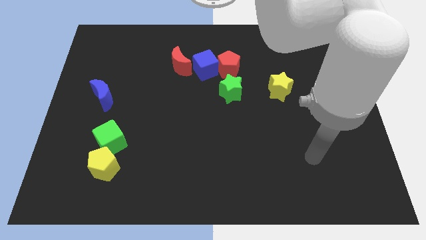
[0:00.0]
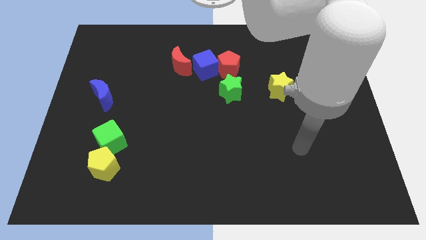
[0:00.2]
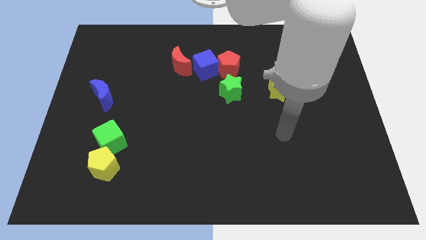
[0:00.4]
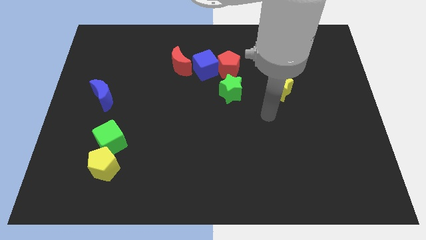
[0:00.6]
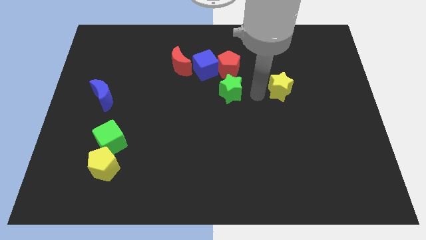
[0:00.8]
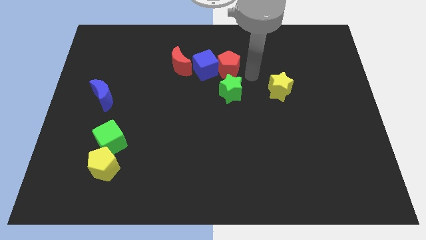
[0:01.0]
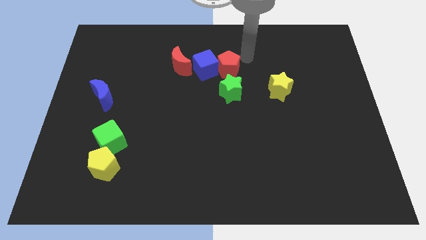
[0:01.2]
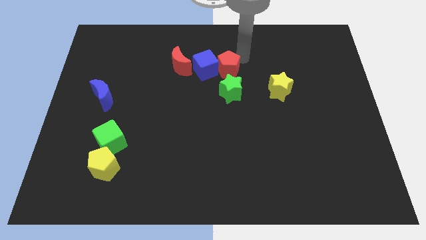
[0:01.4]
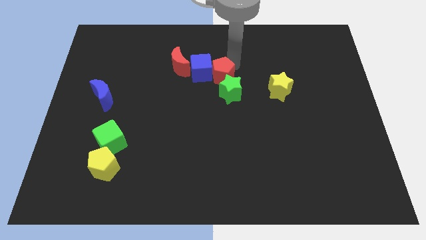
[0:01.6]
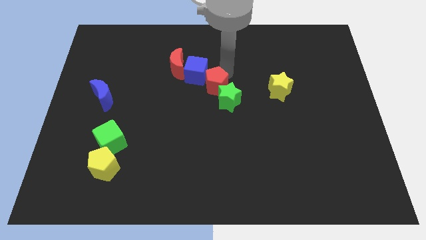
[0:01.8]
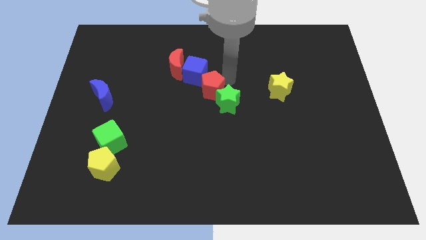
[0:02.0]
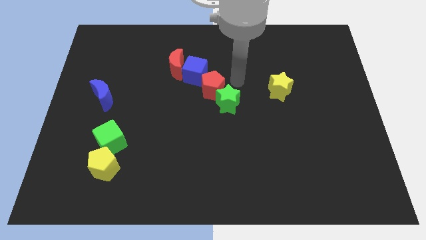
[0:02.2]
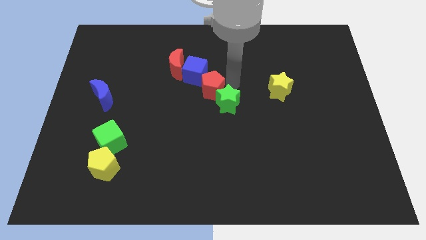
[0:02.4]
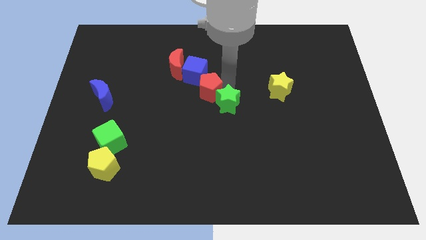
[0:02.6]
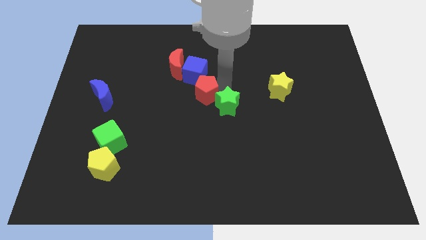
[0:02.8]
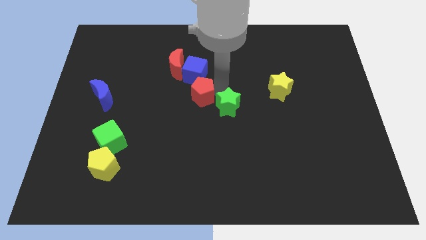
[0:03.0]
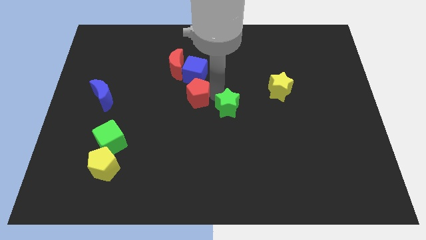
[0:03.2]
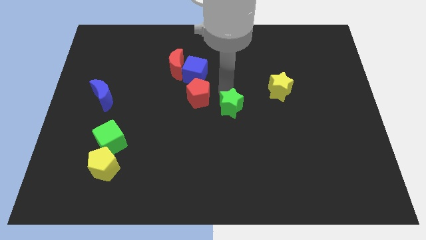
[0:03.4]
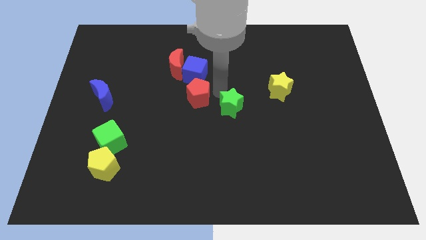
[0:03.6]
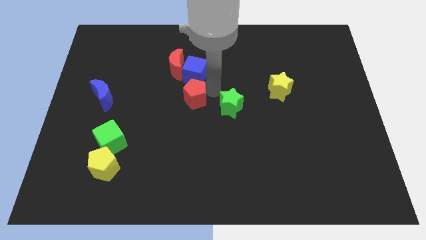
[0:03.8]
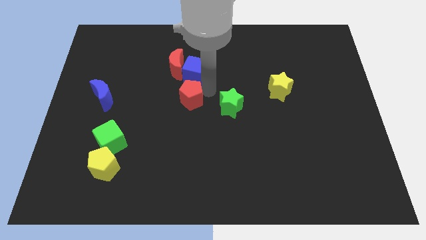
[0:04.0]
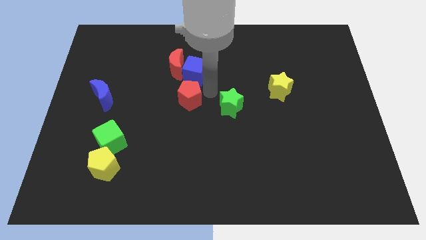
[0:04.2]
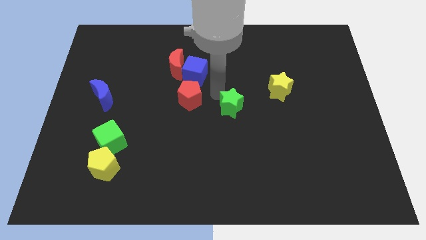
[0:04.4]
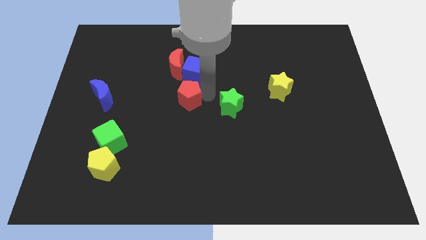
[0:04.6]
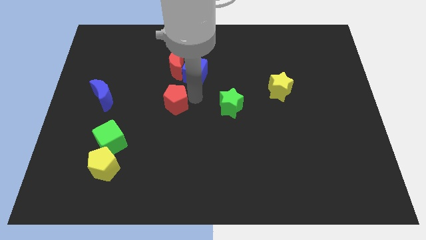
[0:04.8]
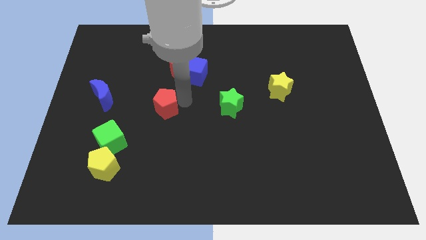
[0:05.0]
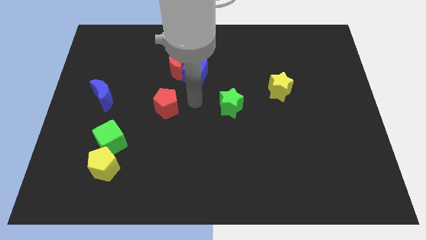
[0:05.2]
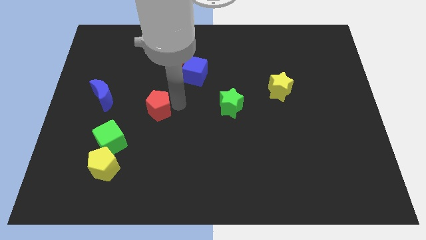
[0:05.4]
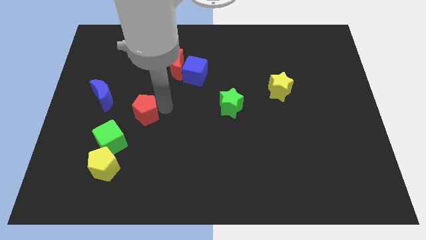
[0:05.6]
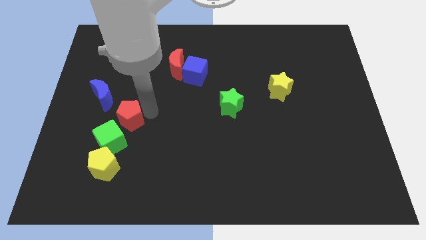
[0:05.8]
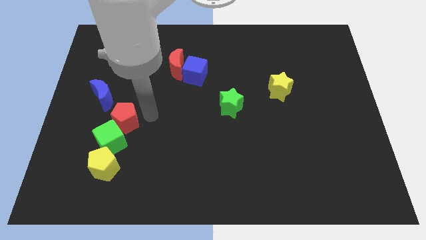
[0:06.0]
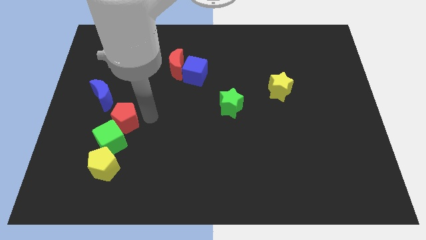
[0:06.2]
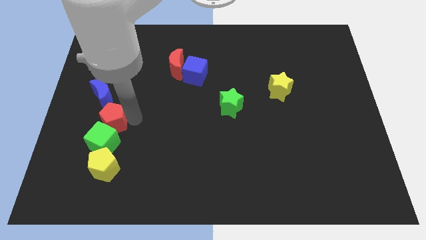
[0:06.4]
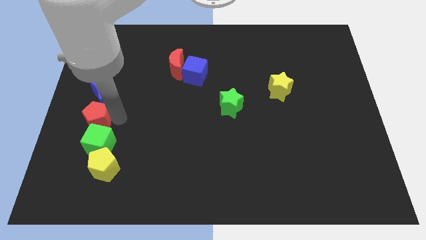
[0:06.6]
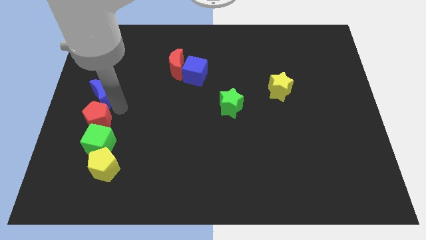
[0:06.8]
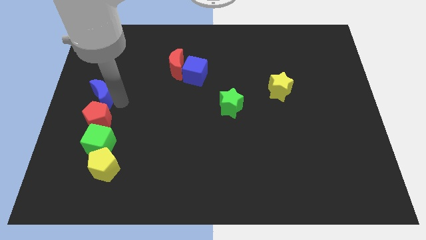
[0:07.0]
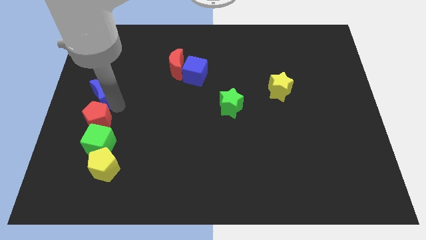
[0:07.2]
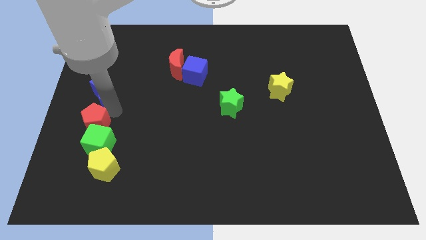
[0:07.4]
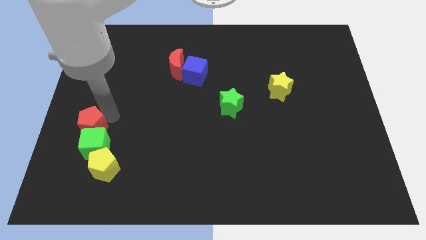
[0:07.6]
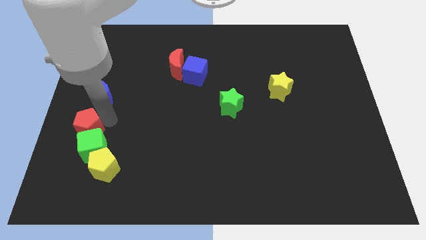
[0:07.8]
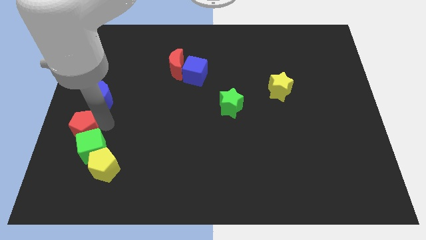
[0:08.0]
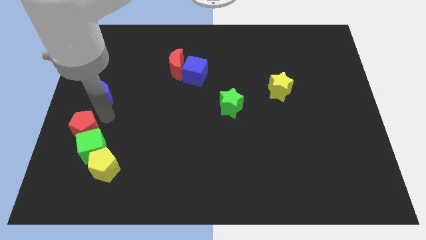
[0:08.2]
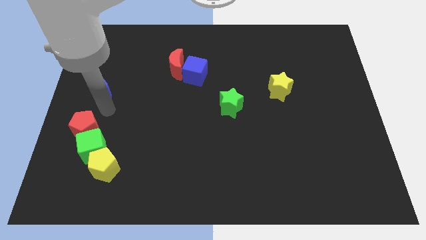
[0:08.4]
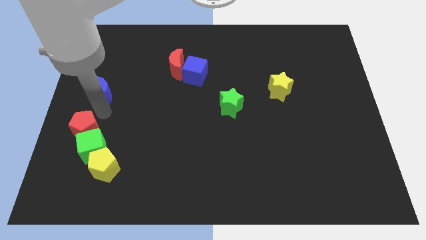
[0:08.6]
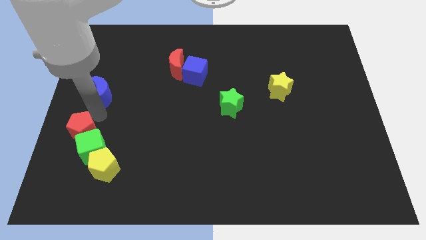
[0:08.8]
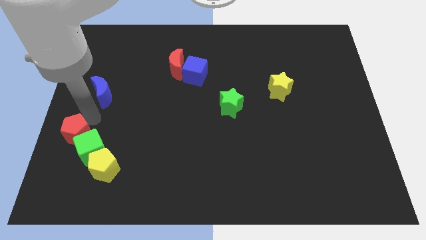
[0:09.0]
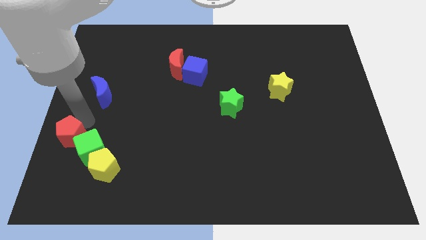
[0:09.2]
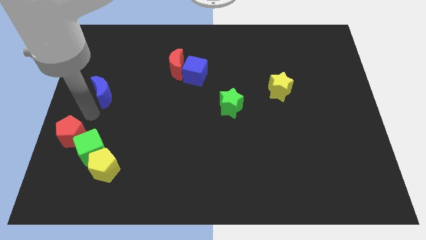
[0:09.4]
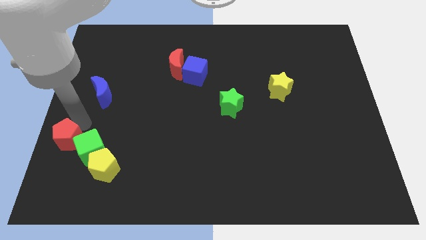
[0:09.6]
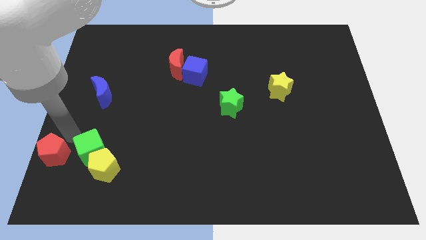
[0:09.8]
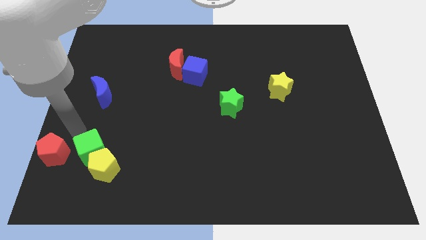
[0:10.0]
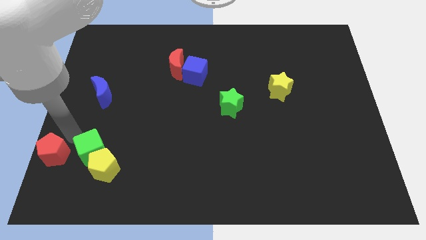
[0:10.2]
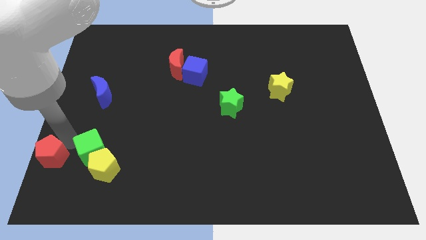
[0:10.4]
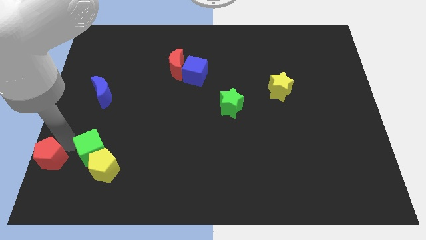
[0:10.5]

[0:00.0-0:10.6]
put the red pentagon to the lower left corner

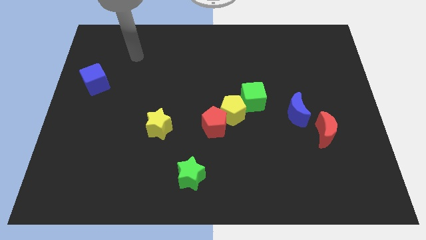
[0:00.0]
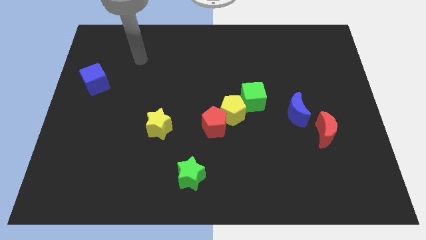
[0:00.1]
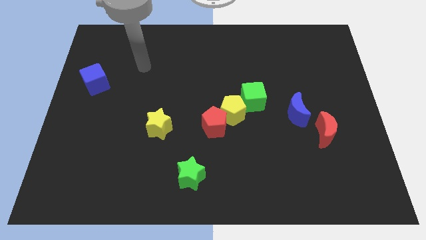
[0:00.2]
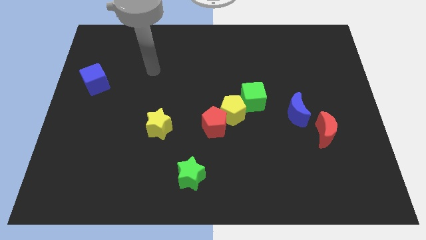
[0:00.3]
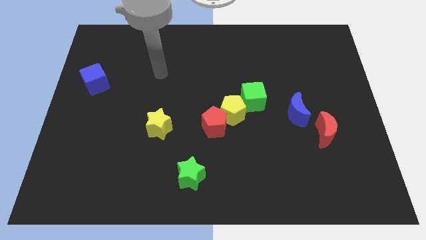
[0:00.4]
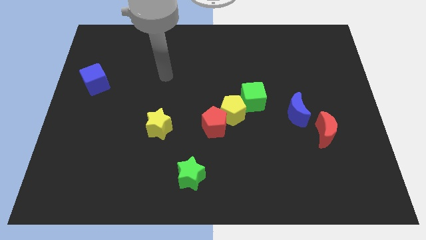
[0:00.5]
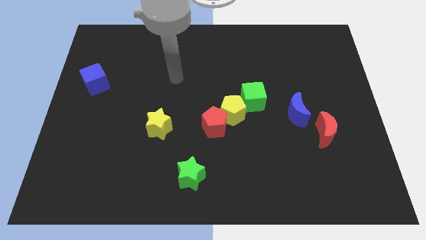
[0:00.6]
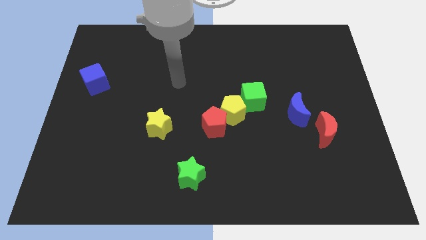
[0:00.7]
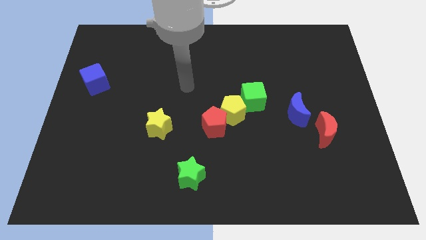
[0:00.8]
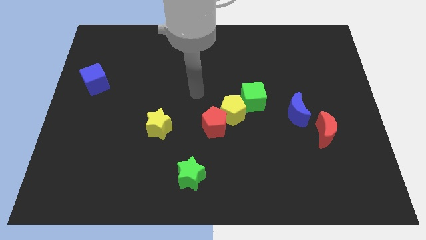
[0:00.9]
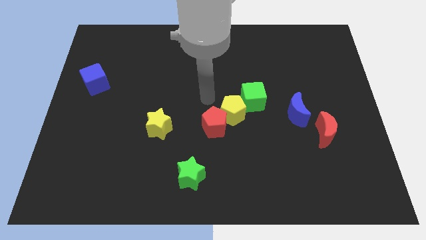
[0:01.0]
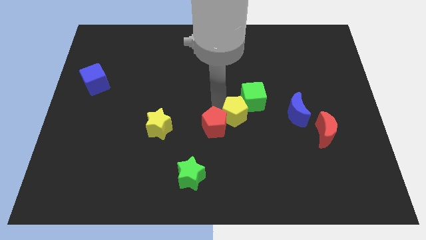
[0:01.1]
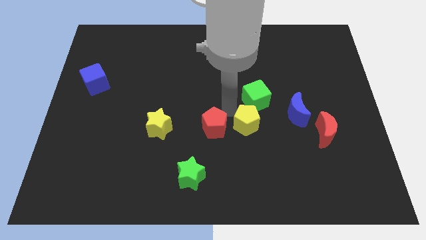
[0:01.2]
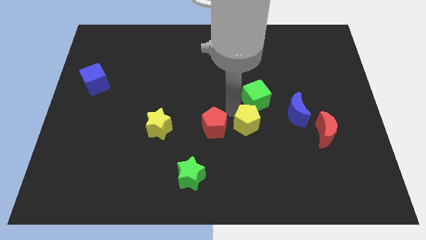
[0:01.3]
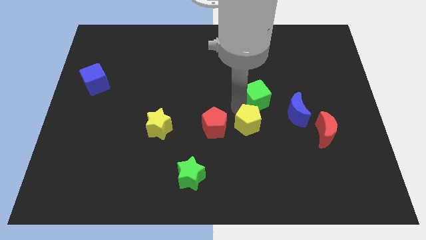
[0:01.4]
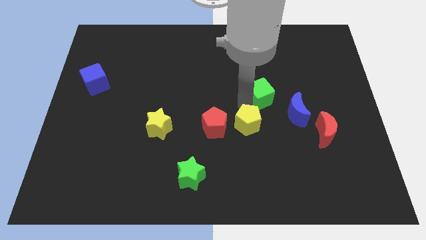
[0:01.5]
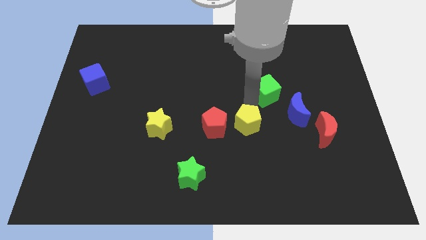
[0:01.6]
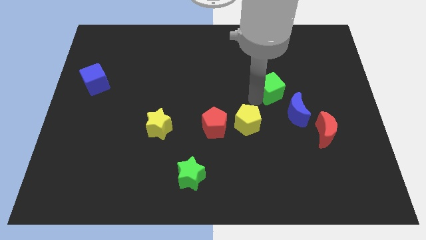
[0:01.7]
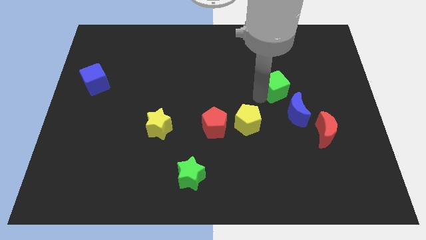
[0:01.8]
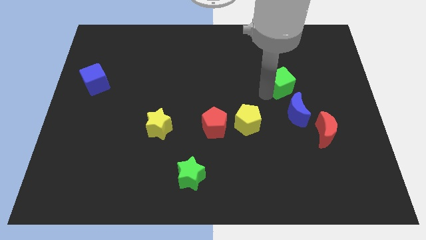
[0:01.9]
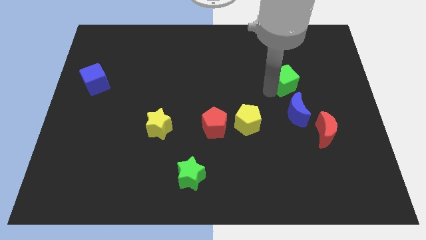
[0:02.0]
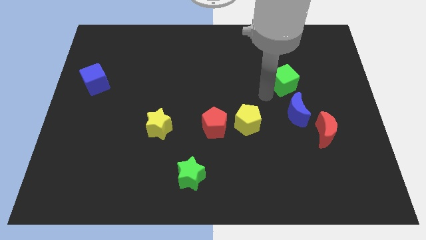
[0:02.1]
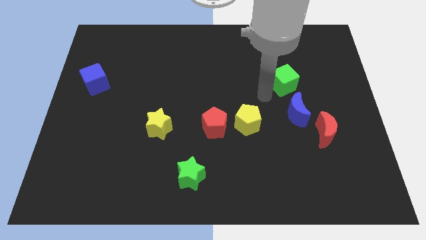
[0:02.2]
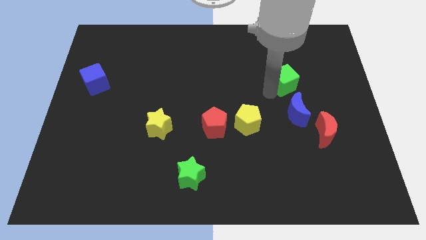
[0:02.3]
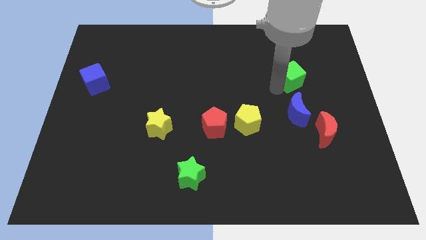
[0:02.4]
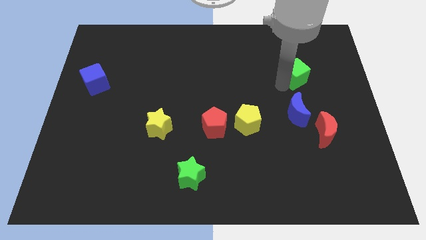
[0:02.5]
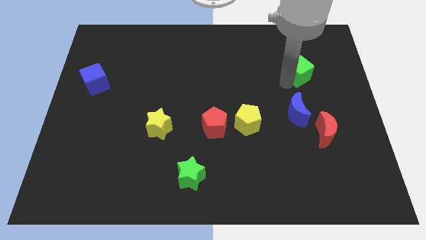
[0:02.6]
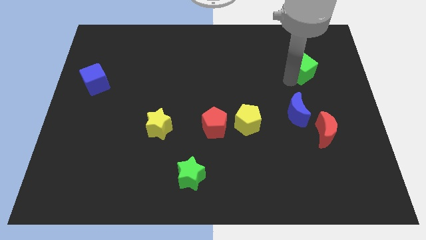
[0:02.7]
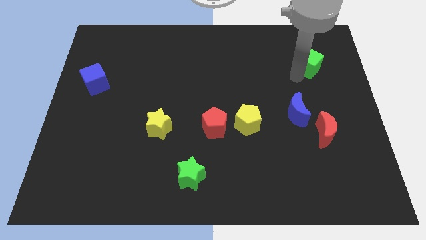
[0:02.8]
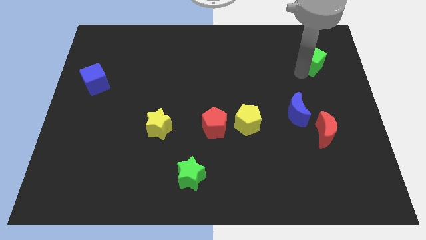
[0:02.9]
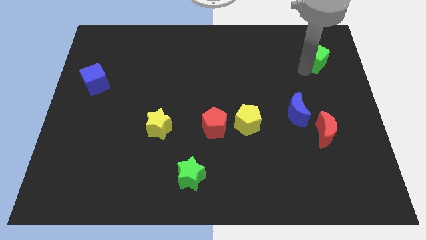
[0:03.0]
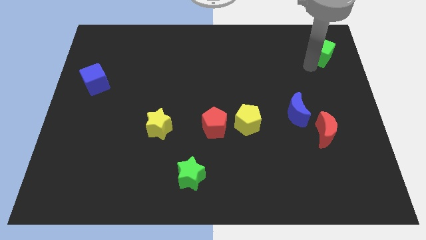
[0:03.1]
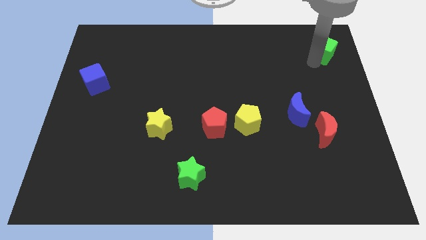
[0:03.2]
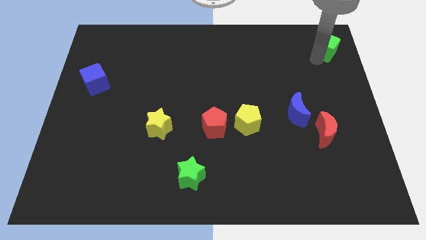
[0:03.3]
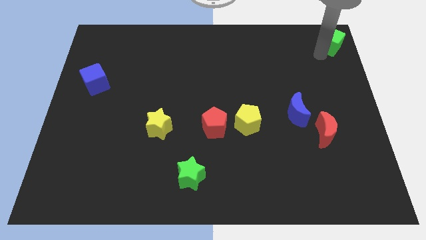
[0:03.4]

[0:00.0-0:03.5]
move the green cube to the upper right corner
